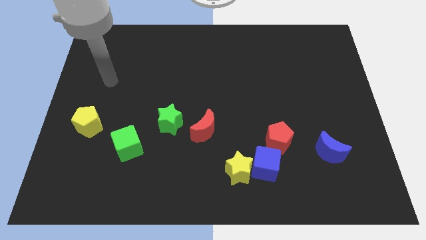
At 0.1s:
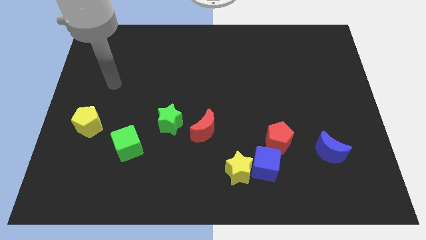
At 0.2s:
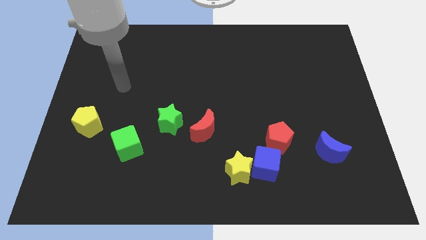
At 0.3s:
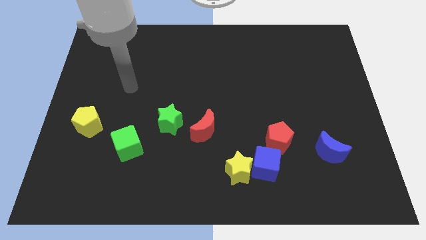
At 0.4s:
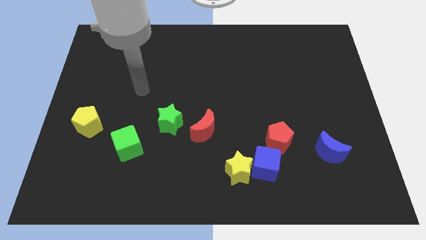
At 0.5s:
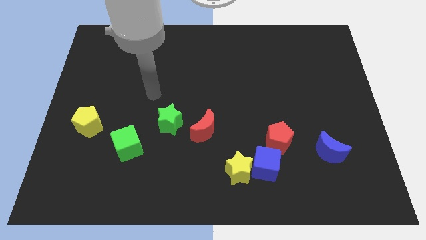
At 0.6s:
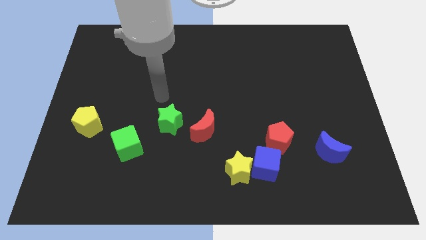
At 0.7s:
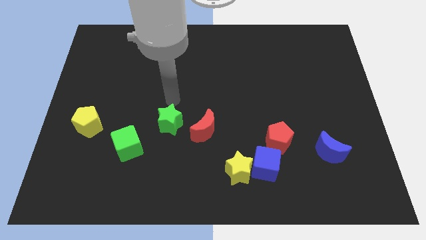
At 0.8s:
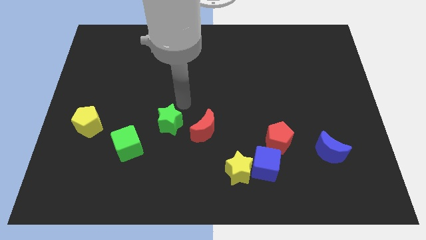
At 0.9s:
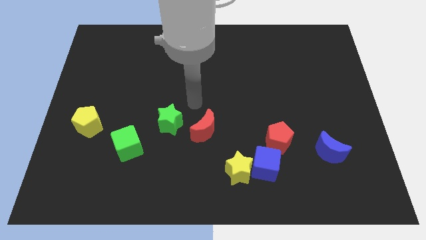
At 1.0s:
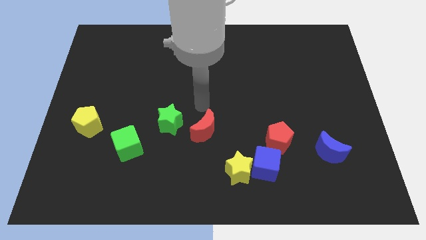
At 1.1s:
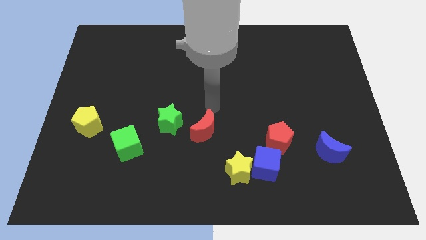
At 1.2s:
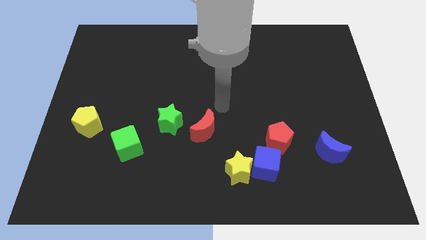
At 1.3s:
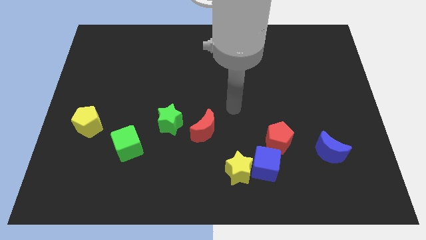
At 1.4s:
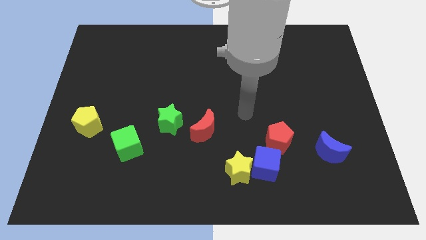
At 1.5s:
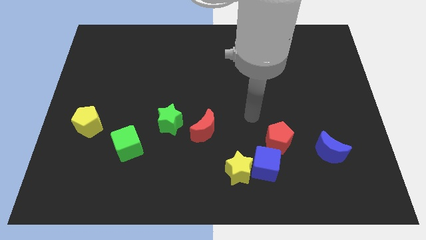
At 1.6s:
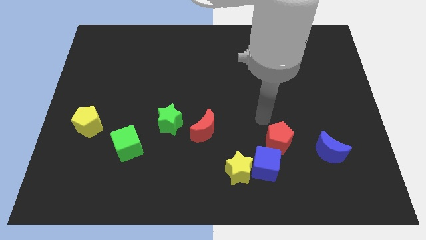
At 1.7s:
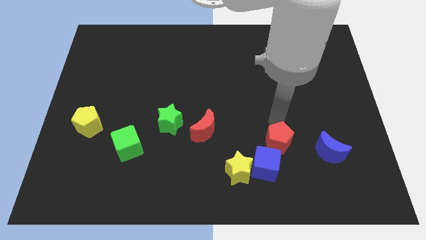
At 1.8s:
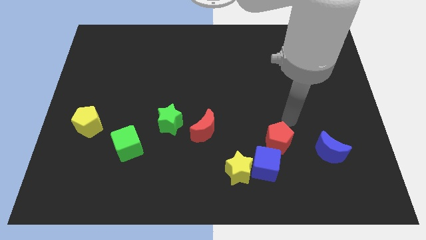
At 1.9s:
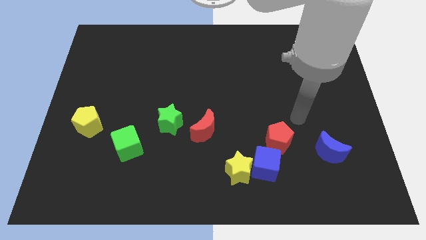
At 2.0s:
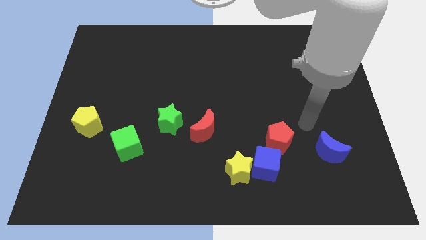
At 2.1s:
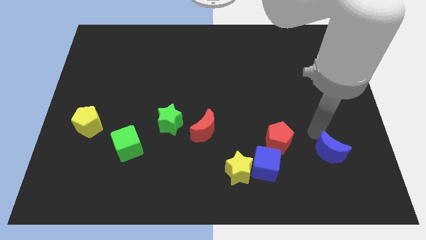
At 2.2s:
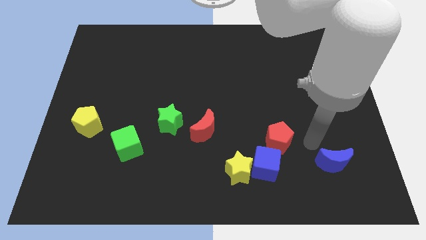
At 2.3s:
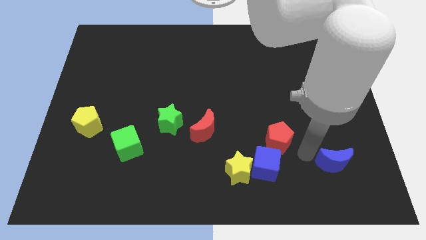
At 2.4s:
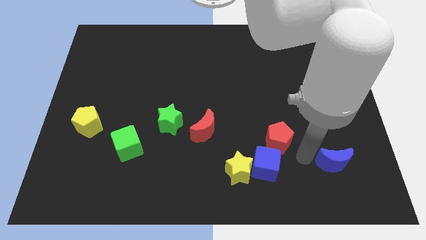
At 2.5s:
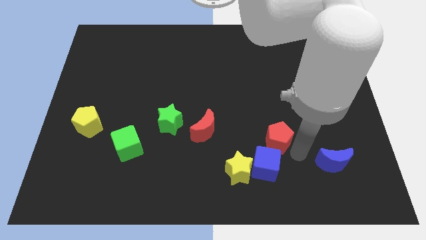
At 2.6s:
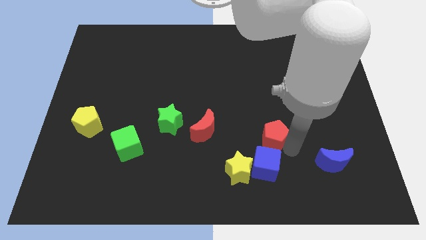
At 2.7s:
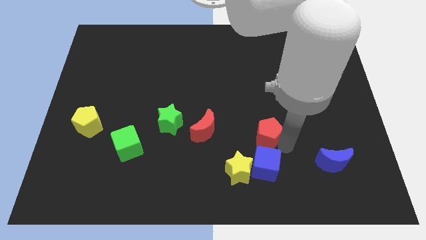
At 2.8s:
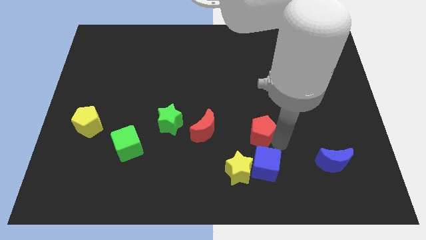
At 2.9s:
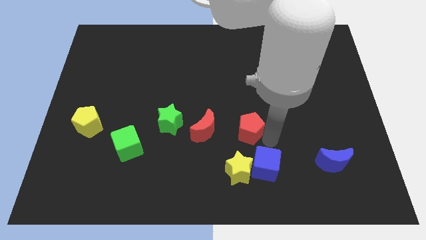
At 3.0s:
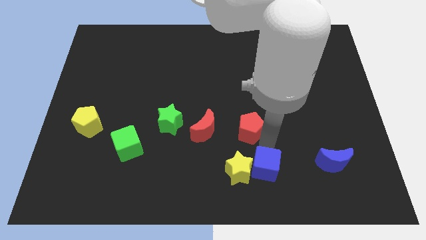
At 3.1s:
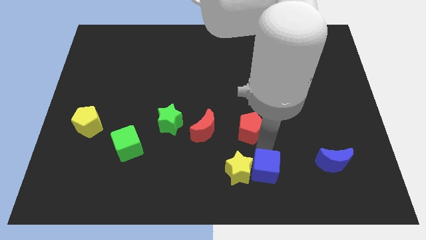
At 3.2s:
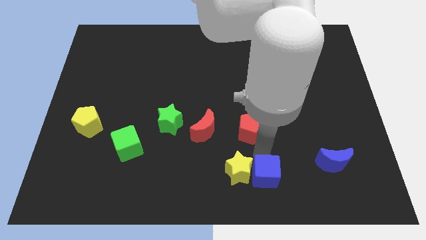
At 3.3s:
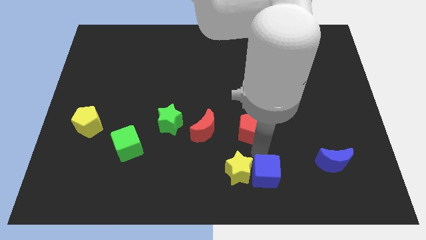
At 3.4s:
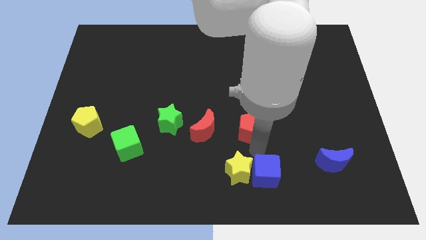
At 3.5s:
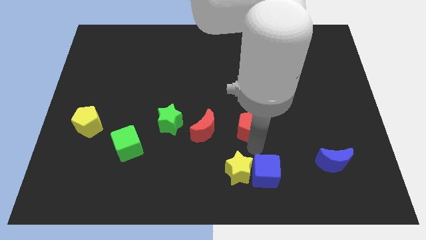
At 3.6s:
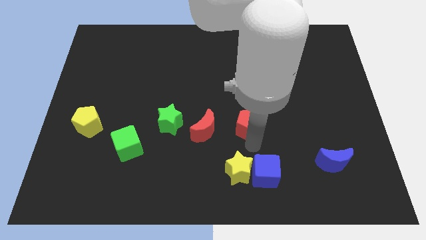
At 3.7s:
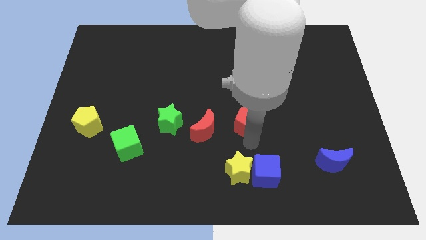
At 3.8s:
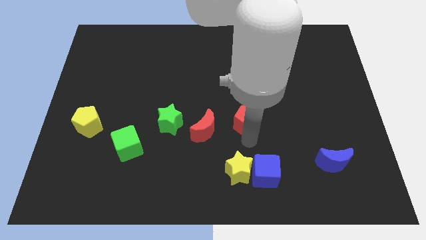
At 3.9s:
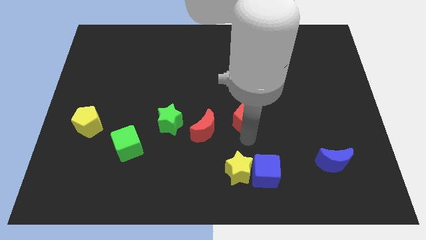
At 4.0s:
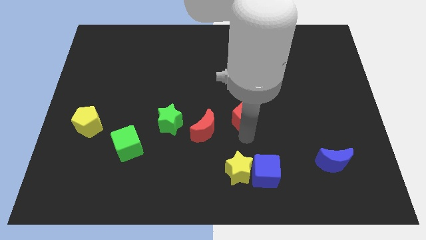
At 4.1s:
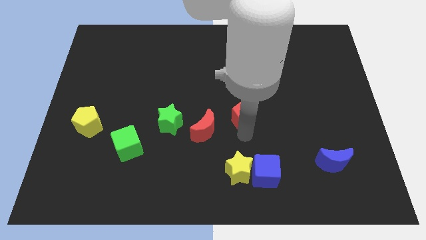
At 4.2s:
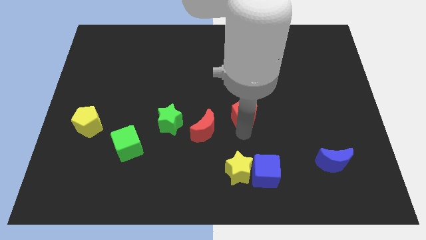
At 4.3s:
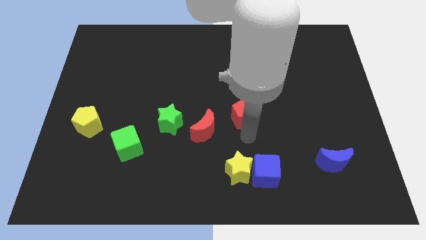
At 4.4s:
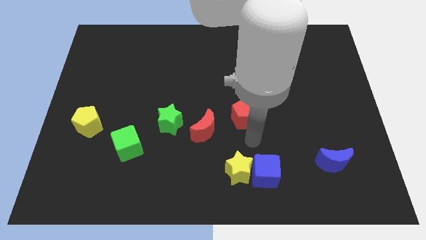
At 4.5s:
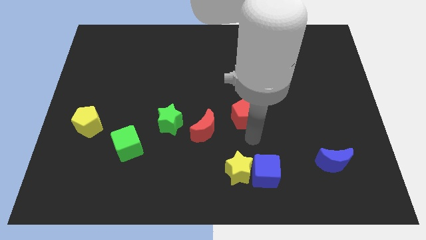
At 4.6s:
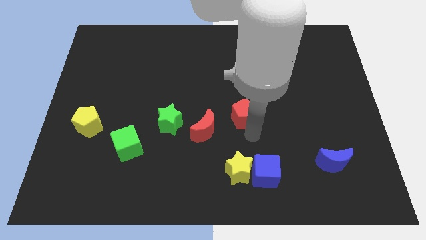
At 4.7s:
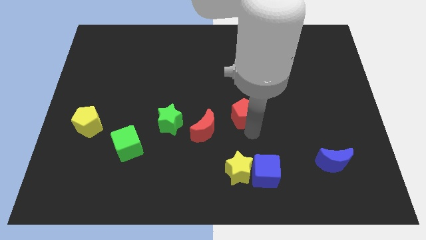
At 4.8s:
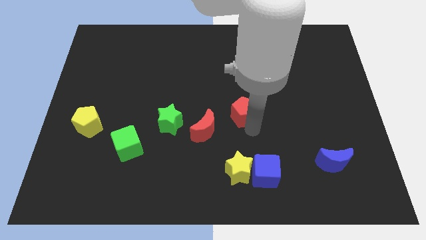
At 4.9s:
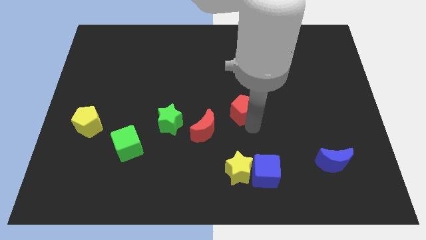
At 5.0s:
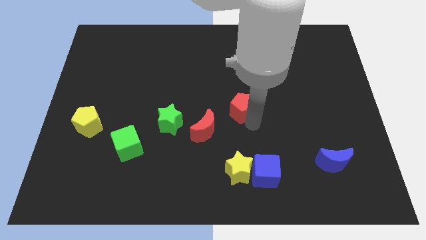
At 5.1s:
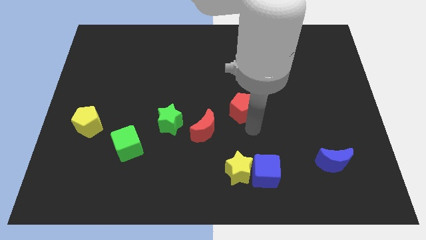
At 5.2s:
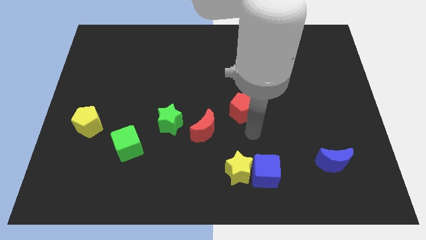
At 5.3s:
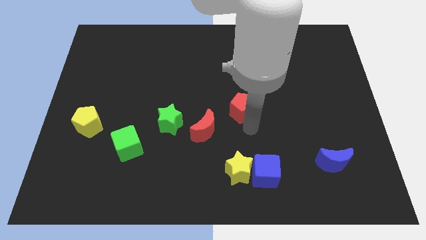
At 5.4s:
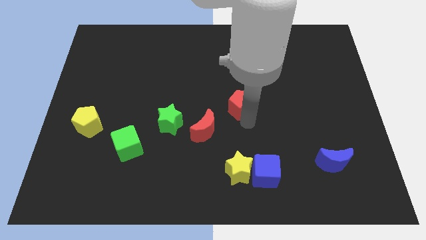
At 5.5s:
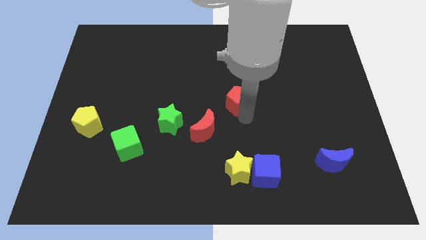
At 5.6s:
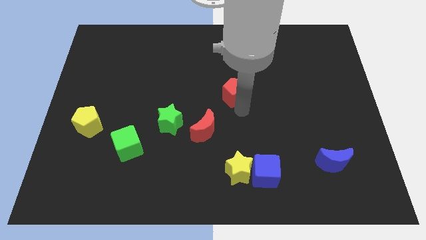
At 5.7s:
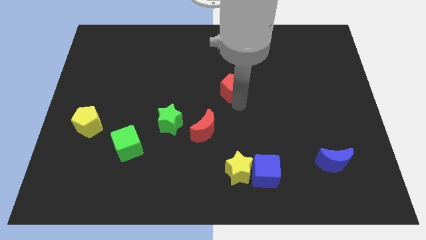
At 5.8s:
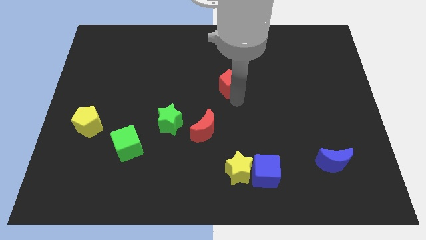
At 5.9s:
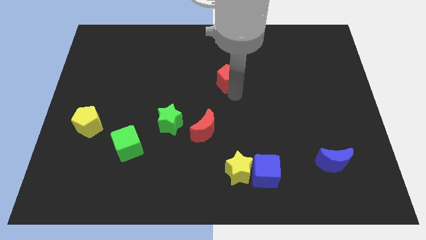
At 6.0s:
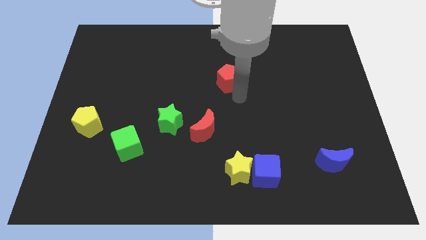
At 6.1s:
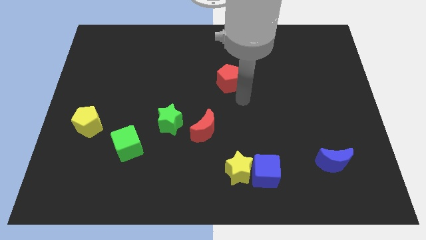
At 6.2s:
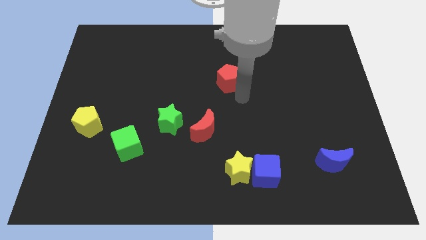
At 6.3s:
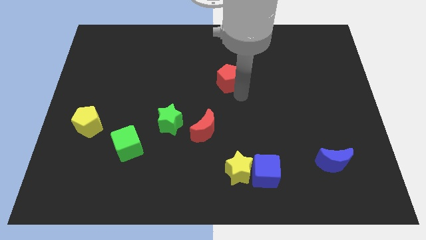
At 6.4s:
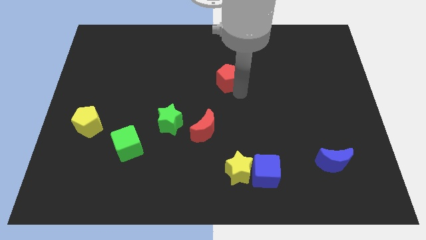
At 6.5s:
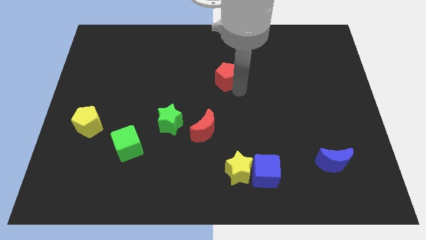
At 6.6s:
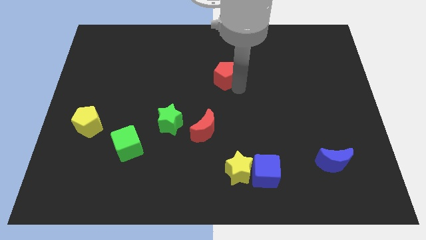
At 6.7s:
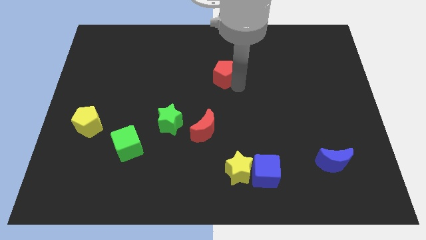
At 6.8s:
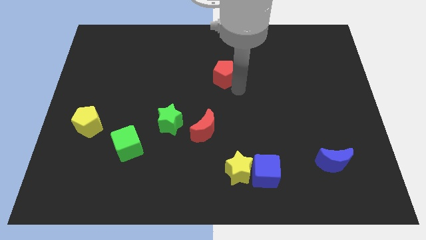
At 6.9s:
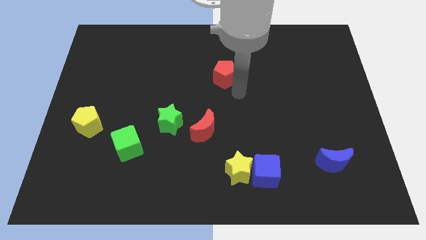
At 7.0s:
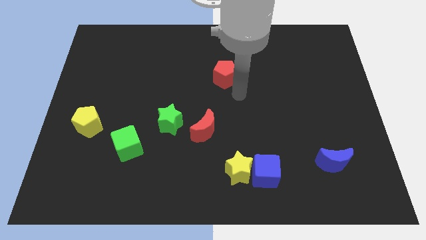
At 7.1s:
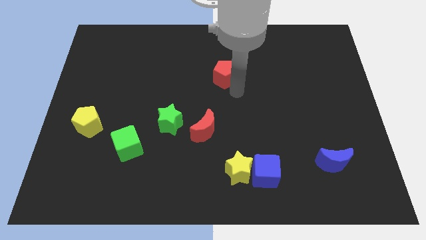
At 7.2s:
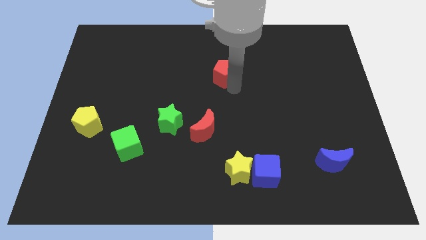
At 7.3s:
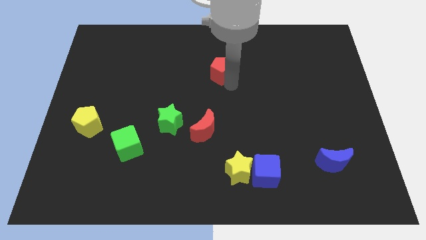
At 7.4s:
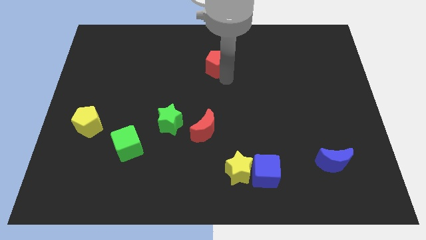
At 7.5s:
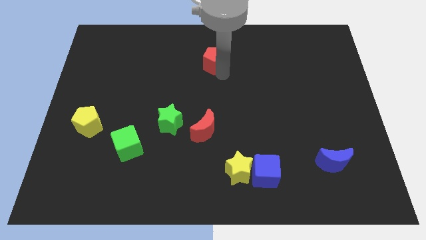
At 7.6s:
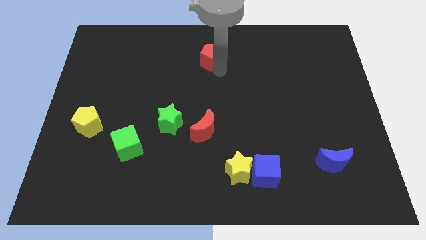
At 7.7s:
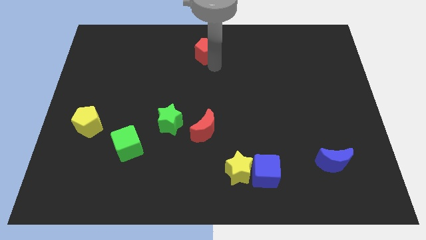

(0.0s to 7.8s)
slide the red pentagon to the top
